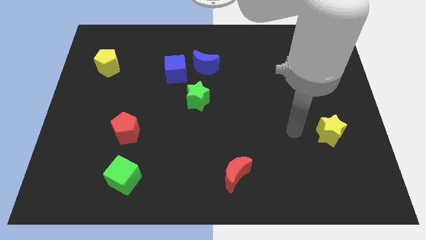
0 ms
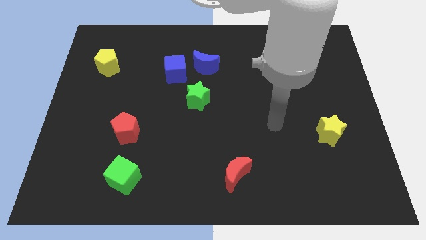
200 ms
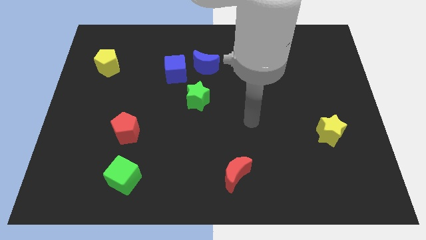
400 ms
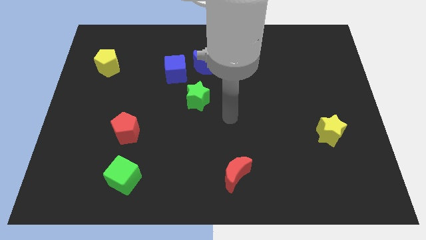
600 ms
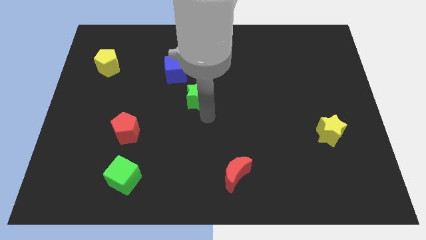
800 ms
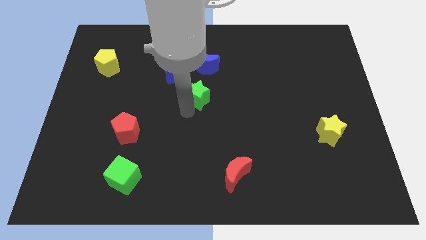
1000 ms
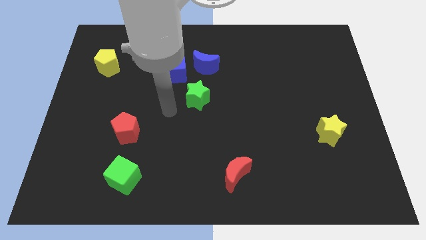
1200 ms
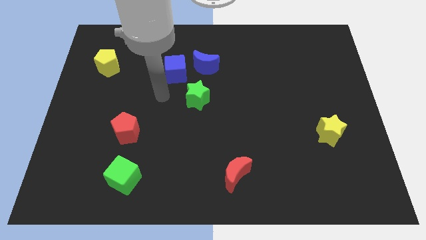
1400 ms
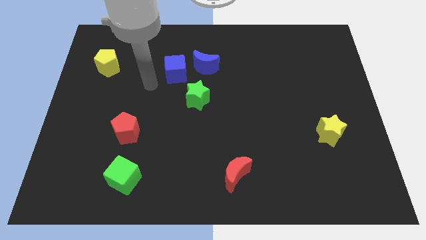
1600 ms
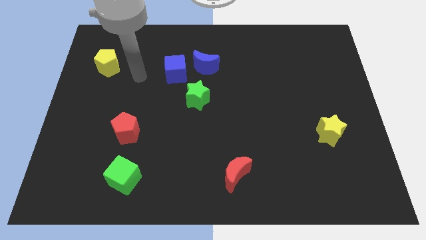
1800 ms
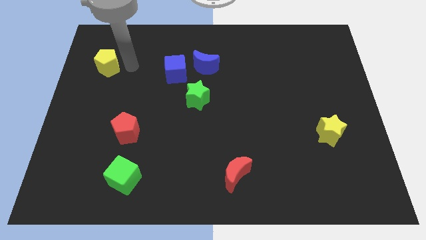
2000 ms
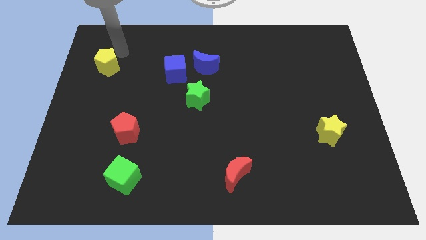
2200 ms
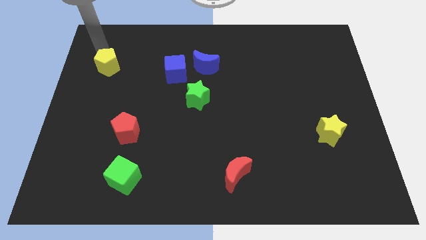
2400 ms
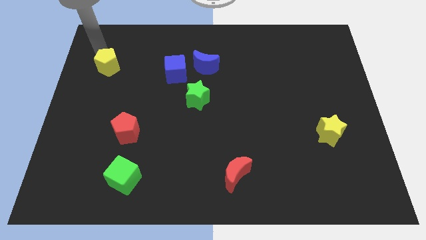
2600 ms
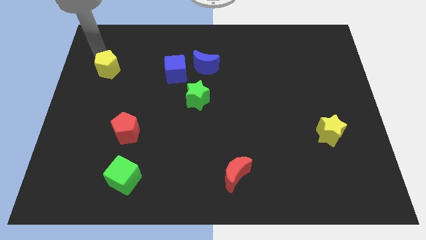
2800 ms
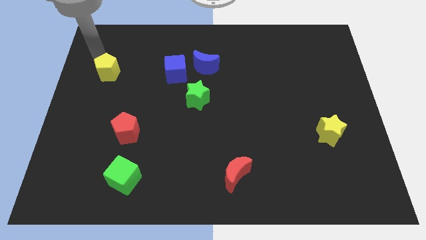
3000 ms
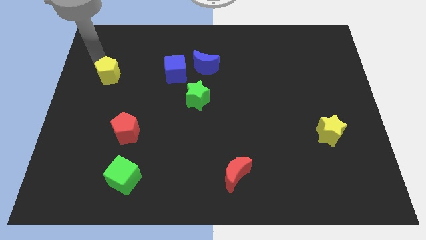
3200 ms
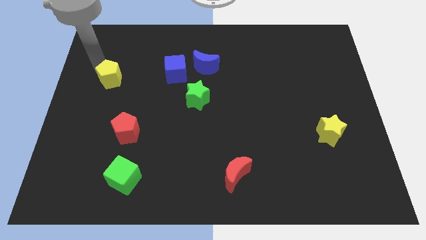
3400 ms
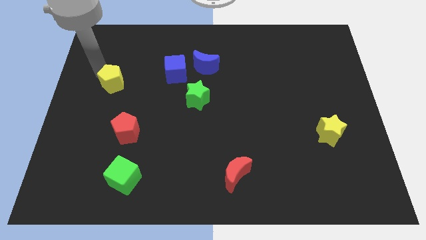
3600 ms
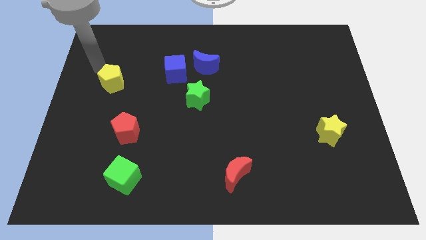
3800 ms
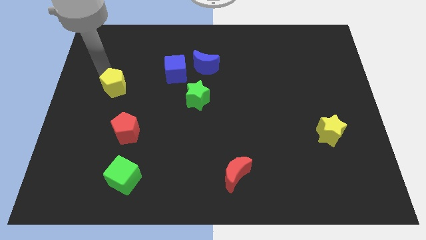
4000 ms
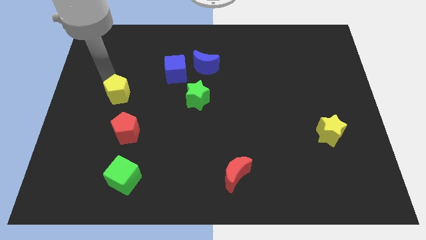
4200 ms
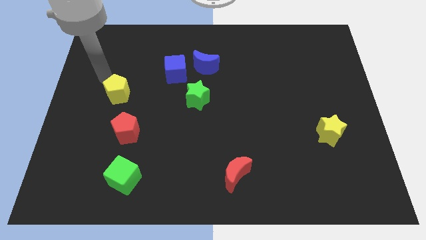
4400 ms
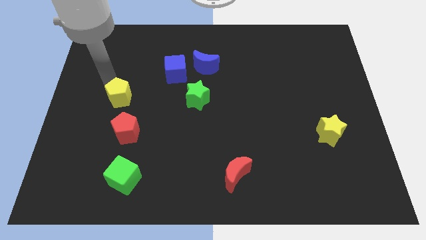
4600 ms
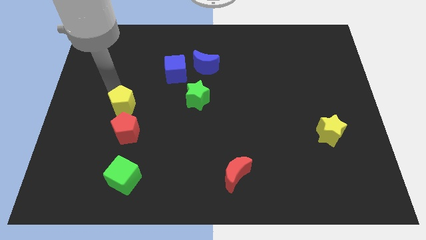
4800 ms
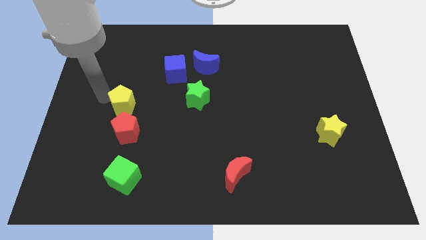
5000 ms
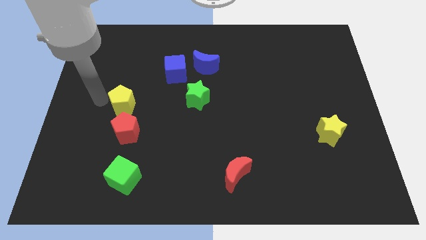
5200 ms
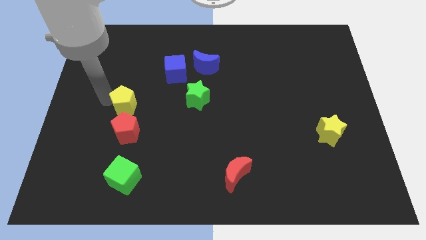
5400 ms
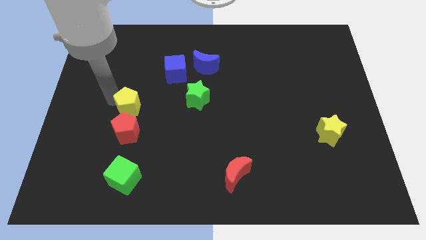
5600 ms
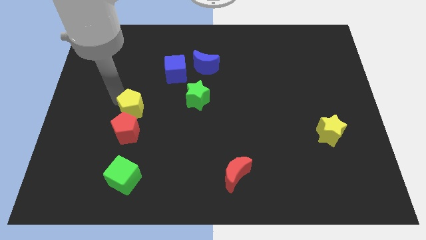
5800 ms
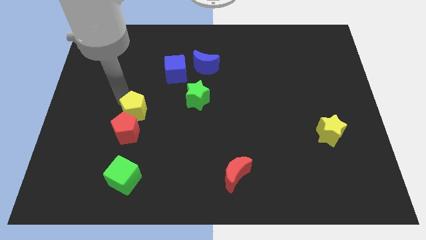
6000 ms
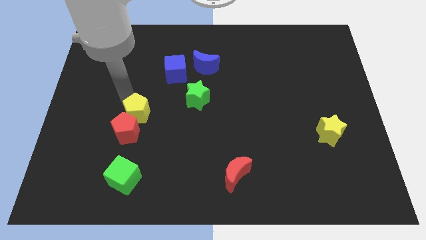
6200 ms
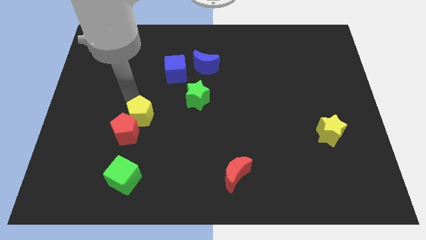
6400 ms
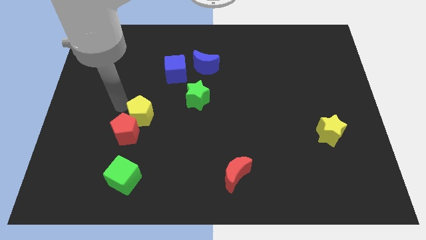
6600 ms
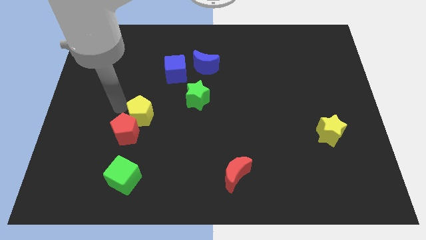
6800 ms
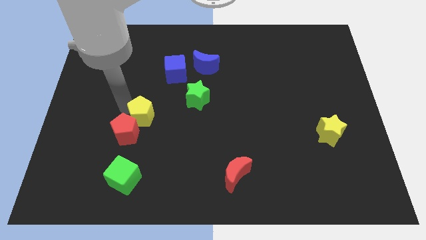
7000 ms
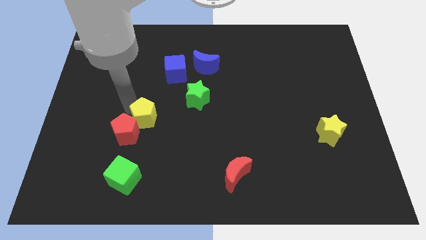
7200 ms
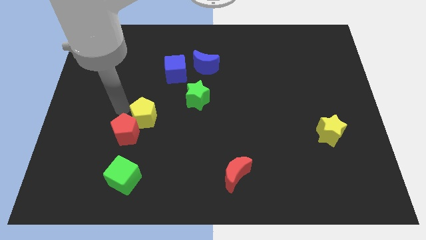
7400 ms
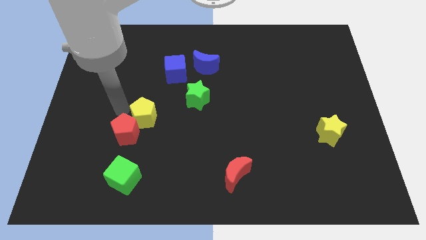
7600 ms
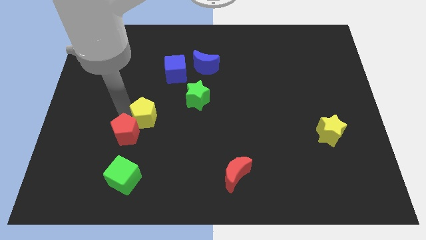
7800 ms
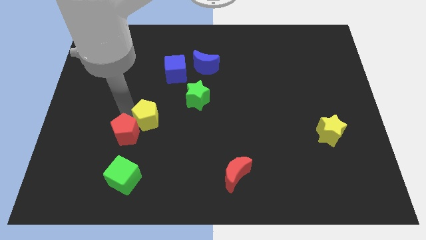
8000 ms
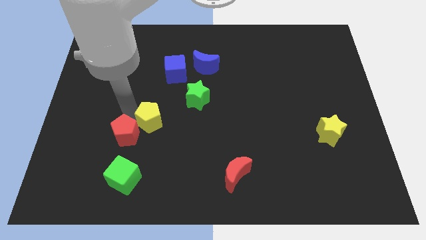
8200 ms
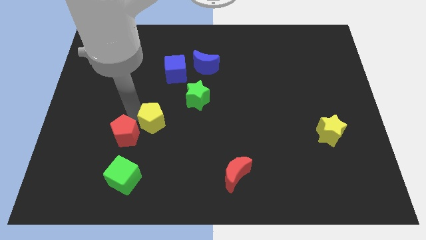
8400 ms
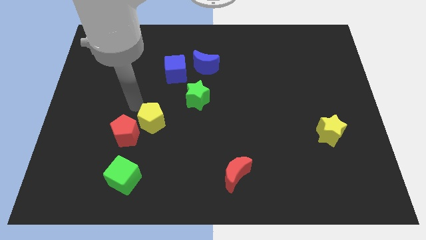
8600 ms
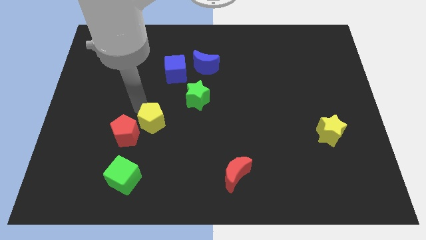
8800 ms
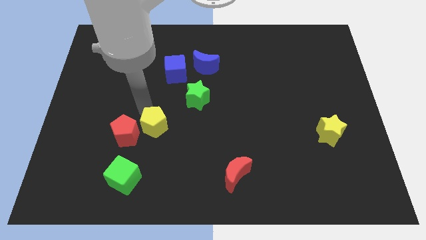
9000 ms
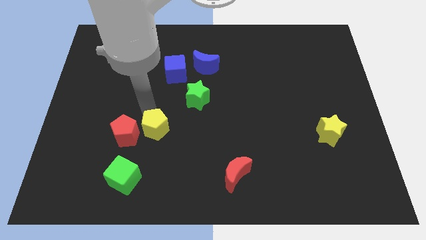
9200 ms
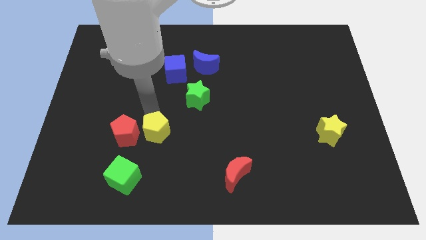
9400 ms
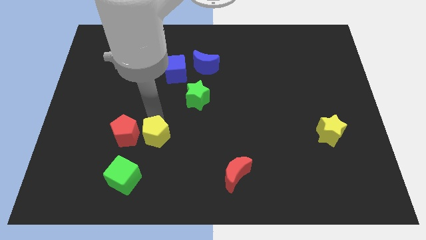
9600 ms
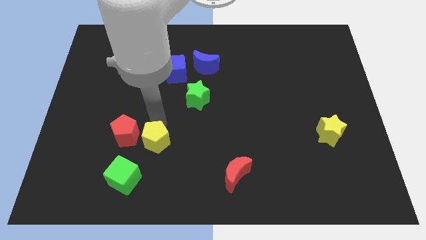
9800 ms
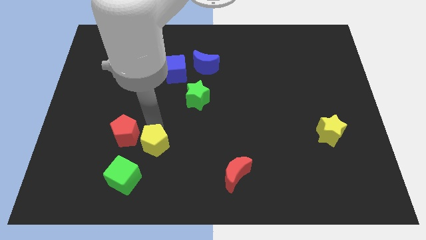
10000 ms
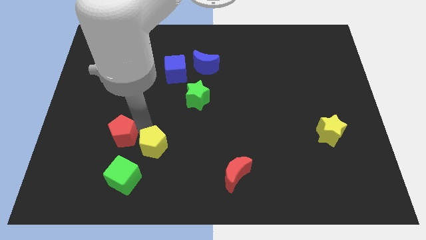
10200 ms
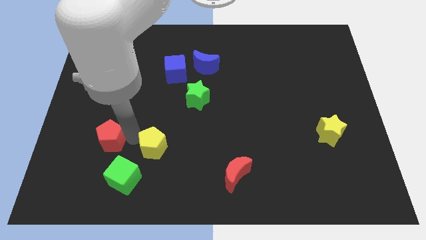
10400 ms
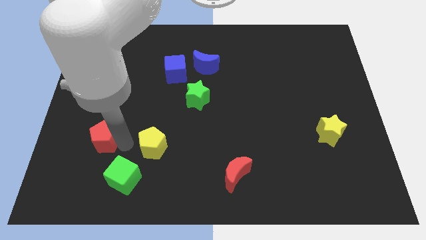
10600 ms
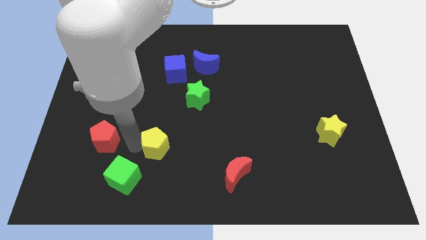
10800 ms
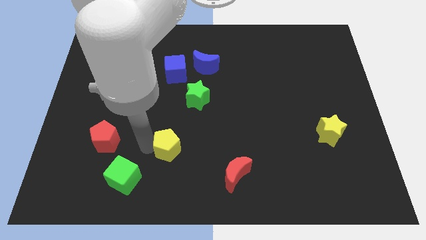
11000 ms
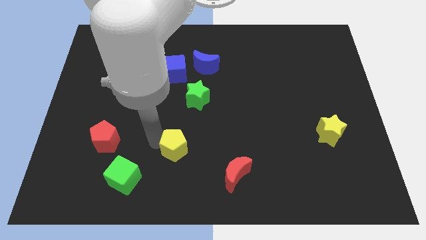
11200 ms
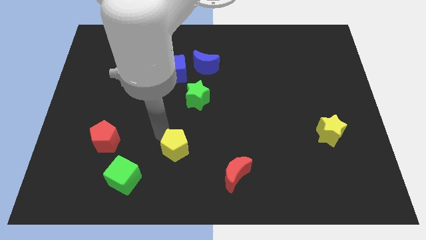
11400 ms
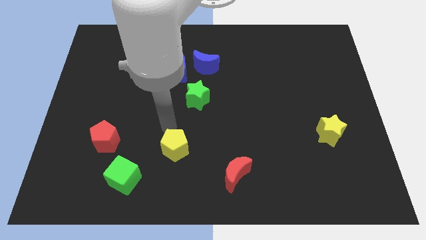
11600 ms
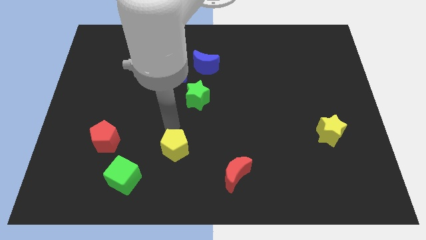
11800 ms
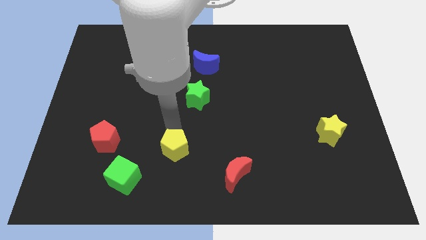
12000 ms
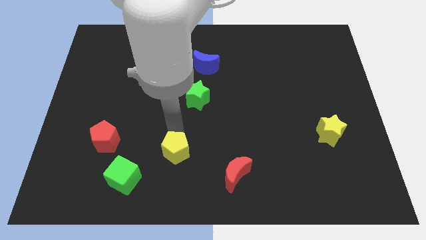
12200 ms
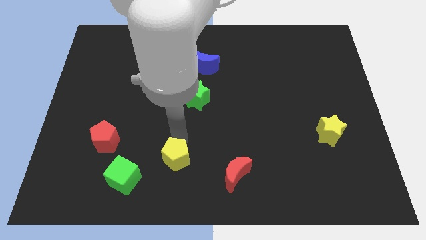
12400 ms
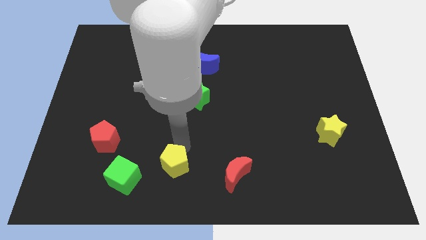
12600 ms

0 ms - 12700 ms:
move the yellow pentagon to the bottom
